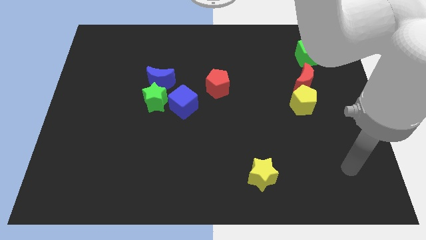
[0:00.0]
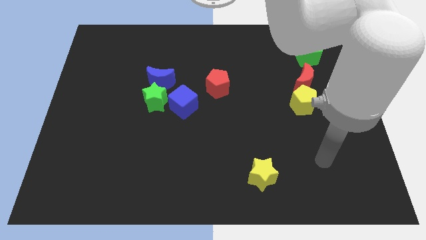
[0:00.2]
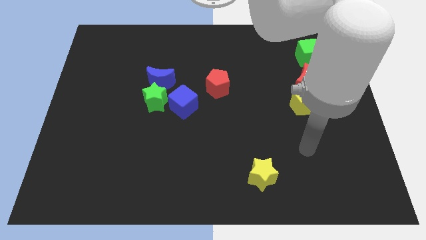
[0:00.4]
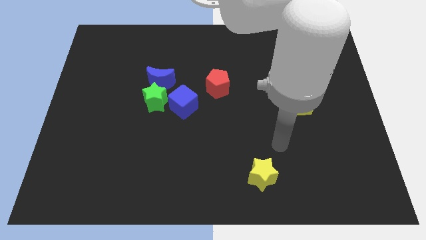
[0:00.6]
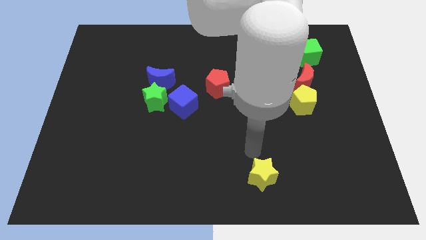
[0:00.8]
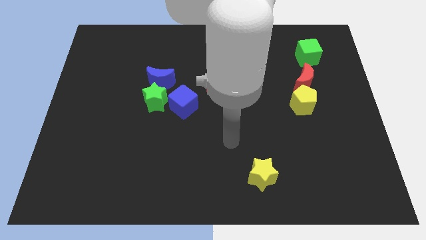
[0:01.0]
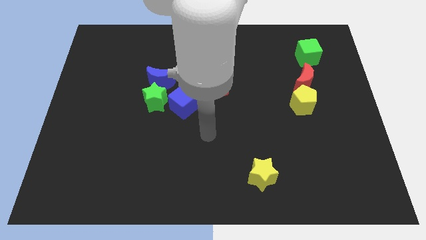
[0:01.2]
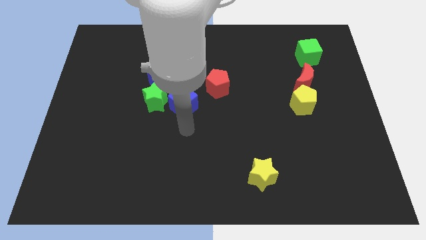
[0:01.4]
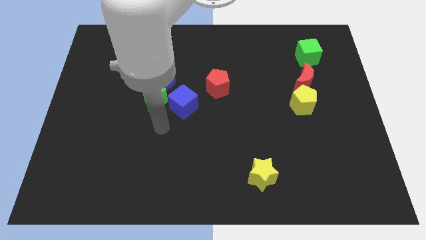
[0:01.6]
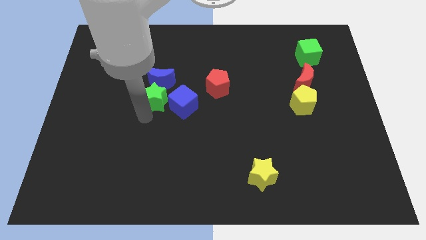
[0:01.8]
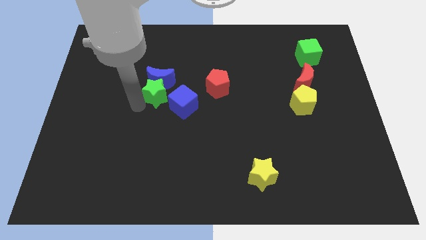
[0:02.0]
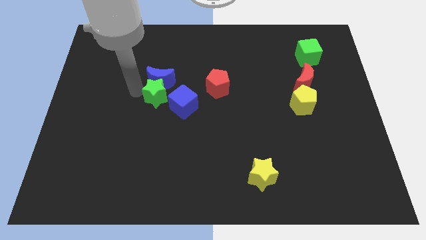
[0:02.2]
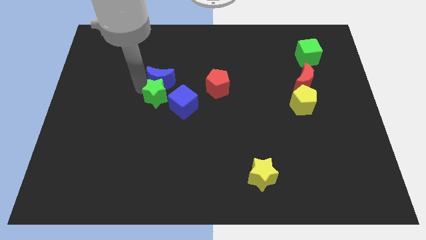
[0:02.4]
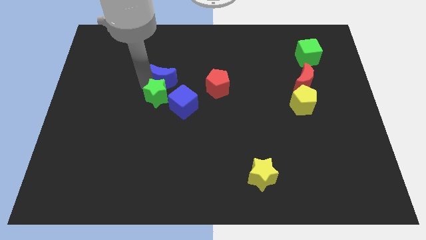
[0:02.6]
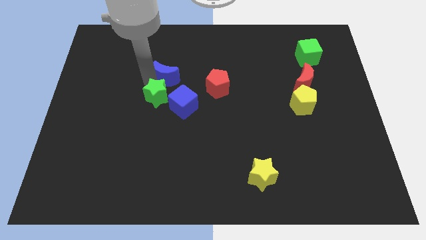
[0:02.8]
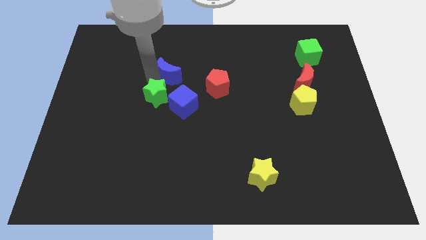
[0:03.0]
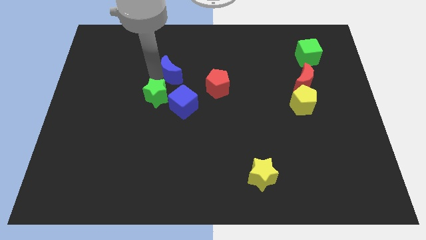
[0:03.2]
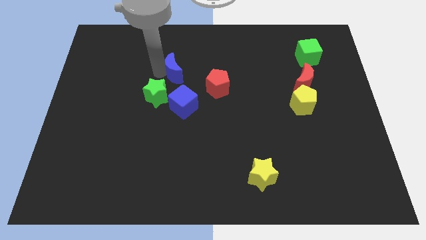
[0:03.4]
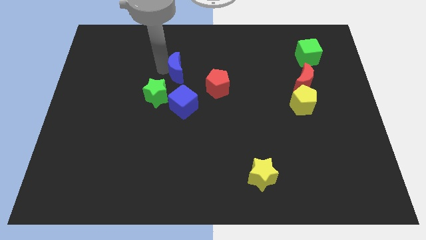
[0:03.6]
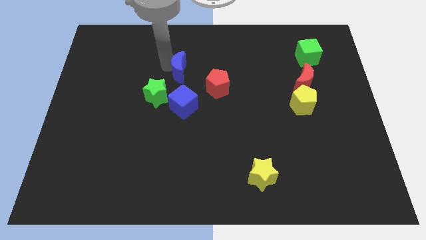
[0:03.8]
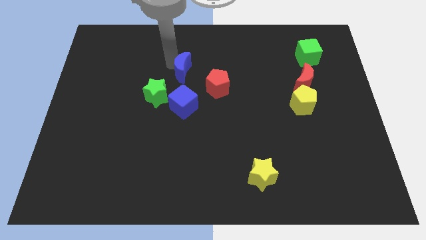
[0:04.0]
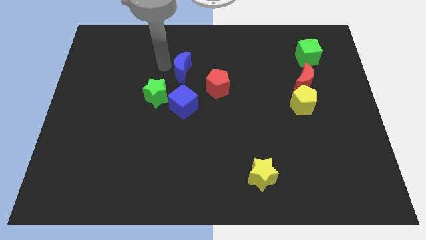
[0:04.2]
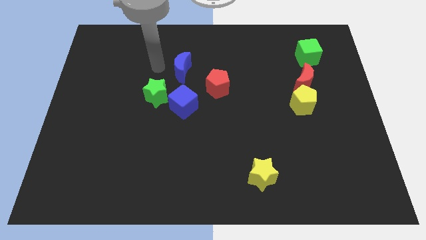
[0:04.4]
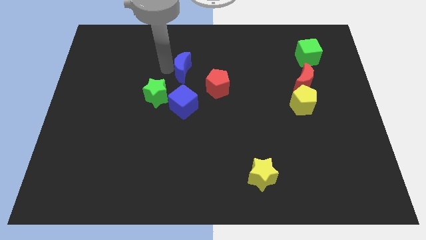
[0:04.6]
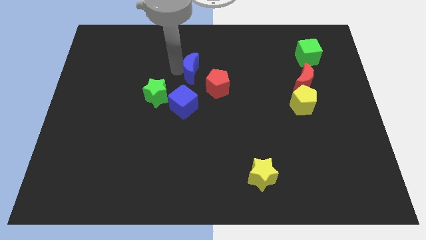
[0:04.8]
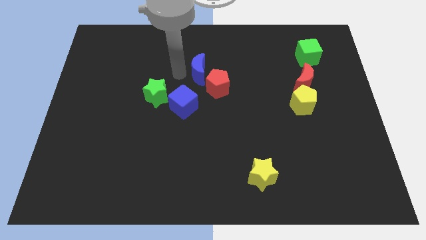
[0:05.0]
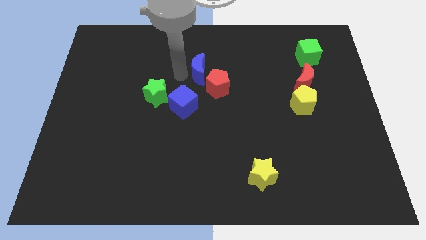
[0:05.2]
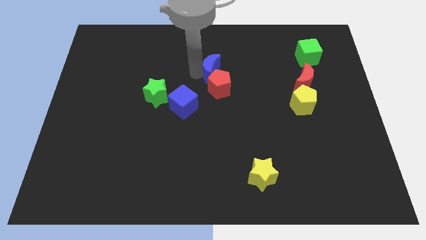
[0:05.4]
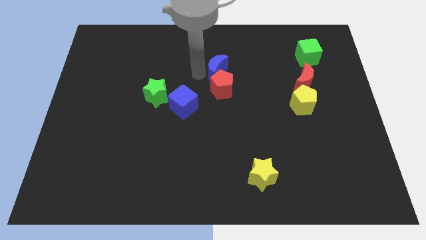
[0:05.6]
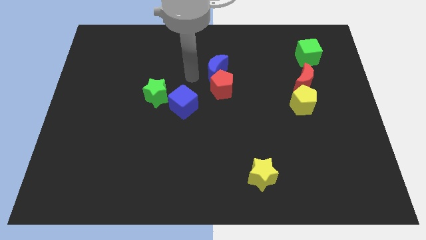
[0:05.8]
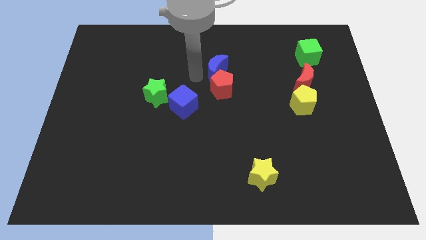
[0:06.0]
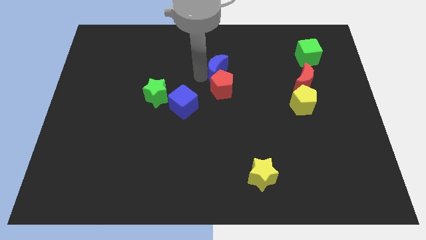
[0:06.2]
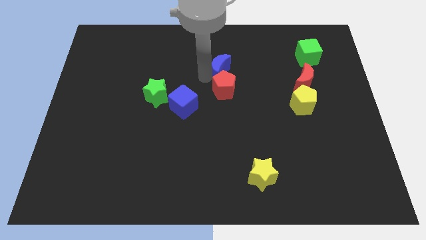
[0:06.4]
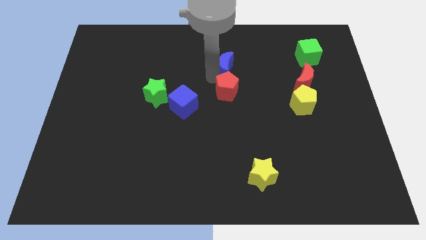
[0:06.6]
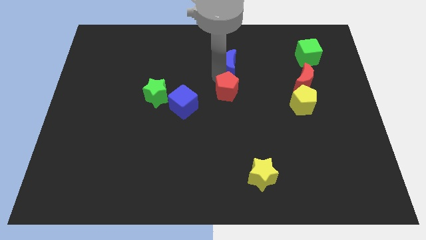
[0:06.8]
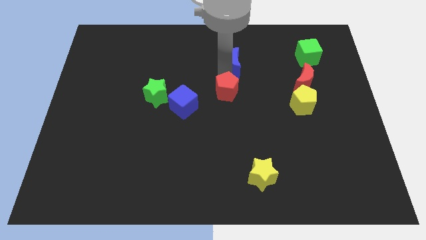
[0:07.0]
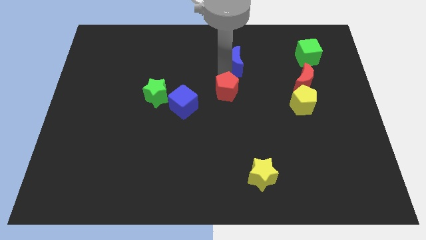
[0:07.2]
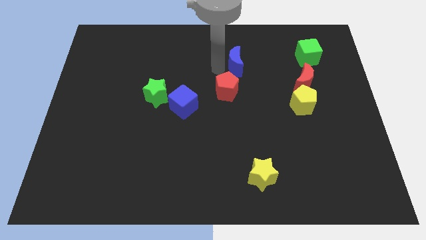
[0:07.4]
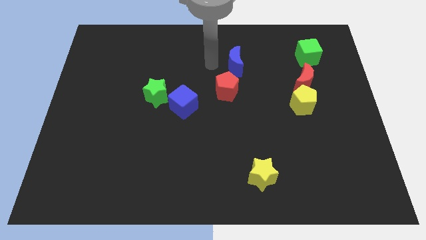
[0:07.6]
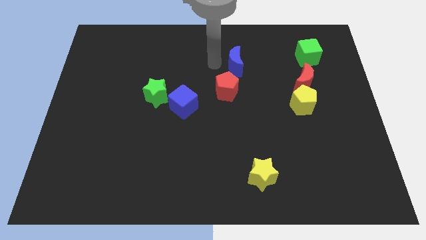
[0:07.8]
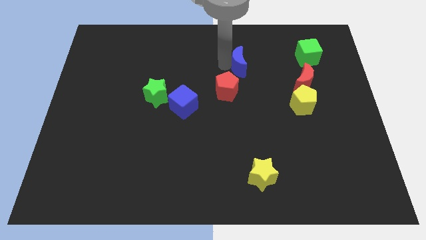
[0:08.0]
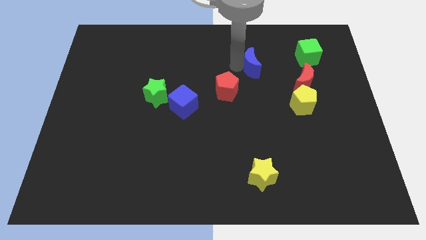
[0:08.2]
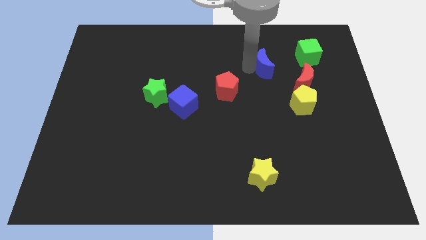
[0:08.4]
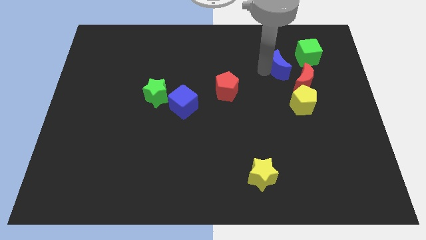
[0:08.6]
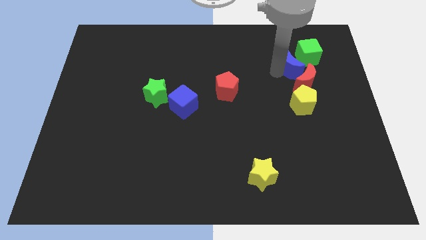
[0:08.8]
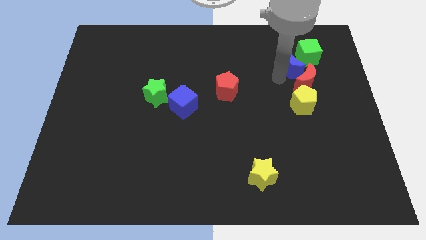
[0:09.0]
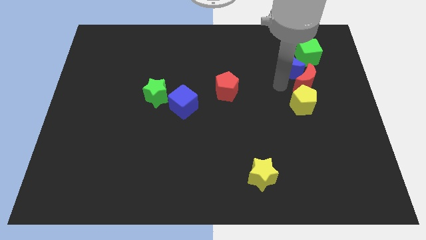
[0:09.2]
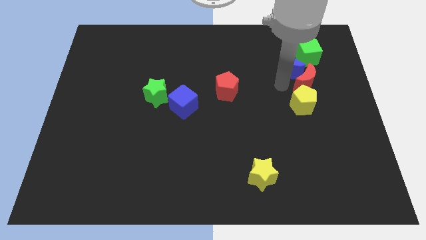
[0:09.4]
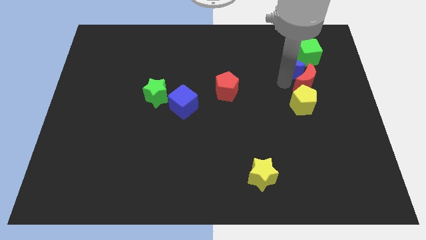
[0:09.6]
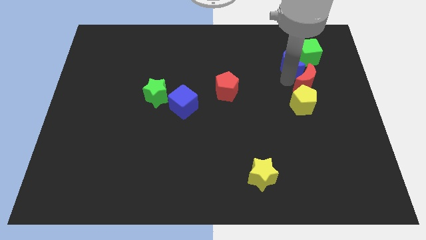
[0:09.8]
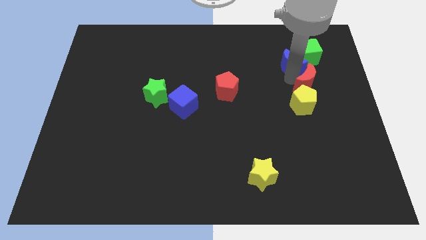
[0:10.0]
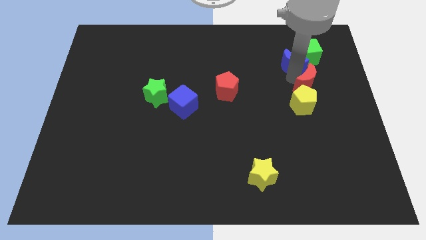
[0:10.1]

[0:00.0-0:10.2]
slide the blue moon towards the green cube

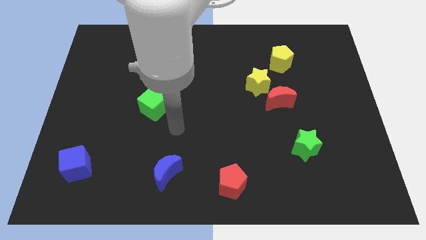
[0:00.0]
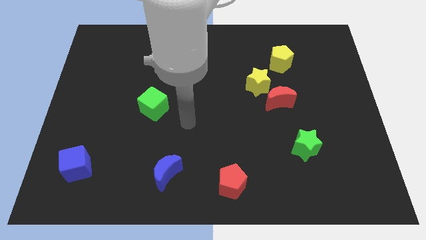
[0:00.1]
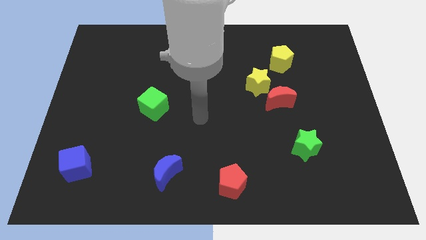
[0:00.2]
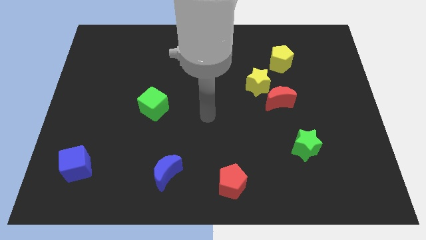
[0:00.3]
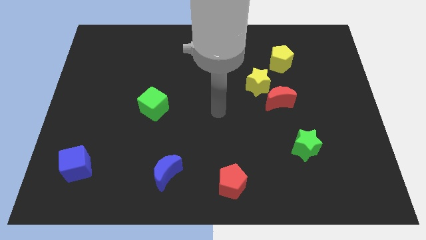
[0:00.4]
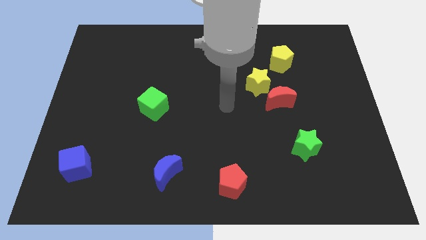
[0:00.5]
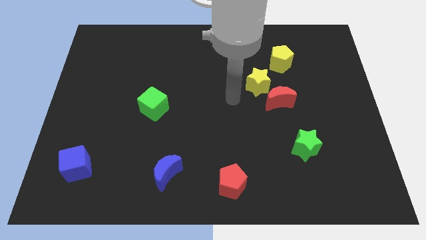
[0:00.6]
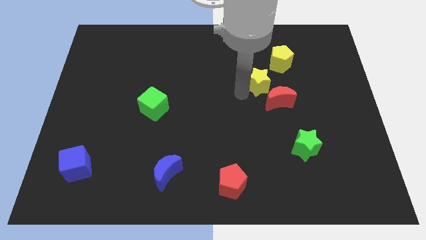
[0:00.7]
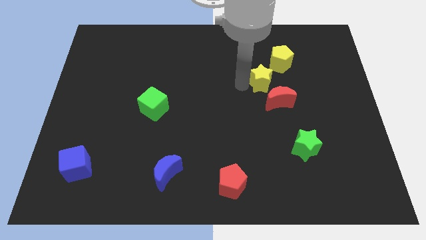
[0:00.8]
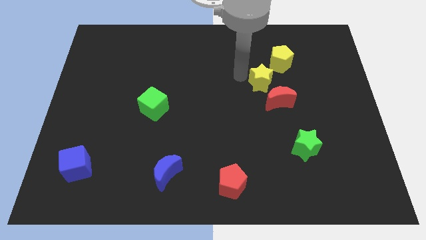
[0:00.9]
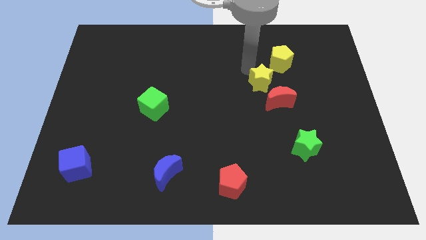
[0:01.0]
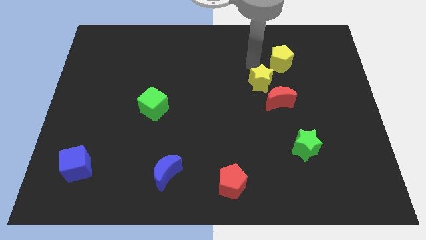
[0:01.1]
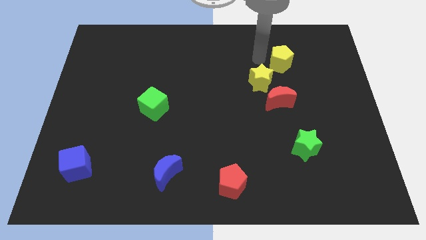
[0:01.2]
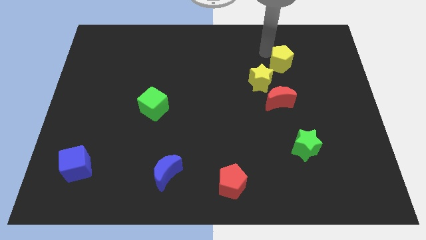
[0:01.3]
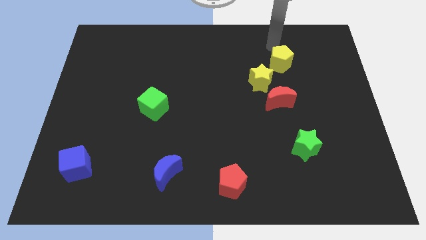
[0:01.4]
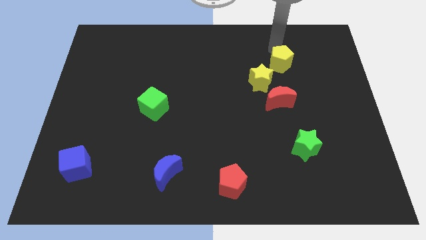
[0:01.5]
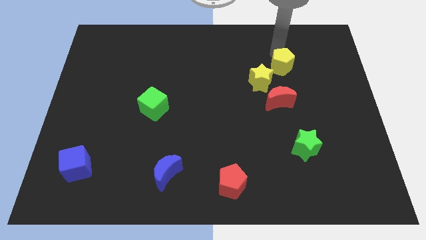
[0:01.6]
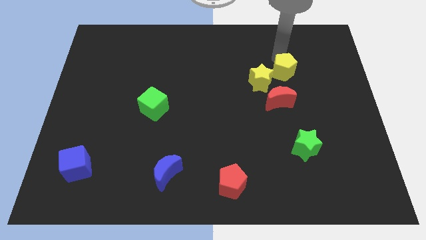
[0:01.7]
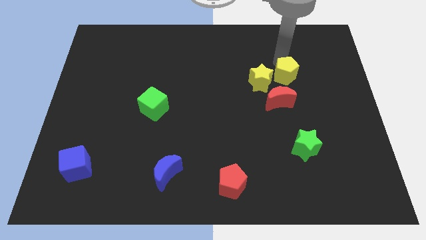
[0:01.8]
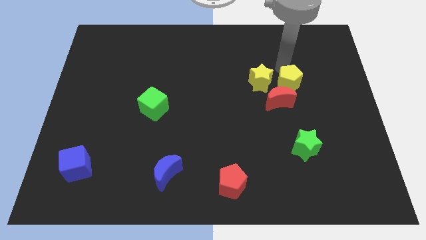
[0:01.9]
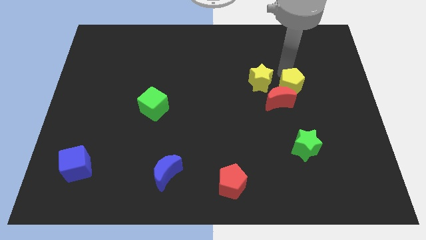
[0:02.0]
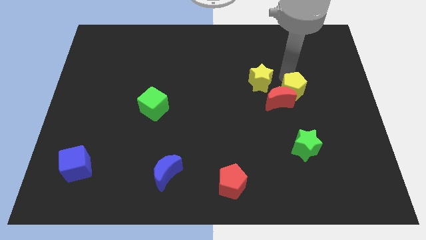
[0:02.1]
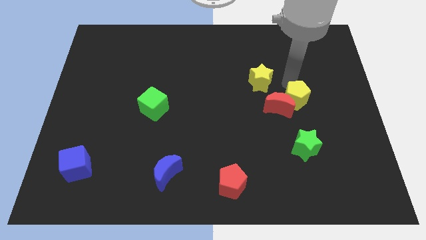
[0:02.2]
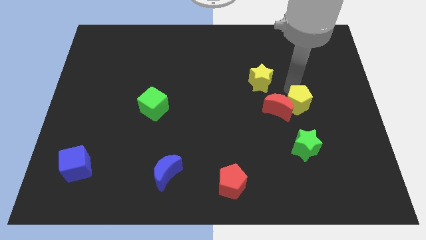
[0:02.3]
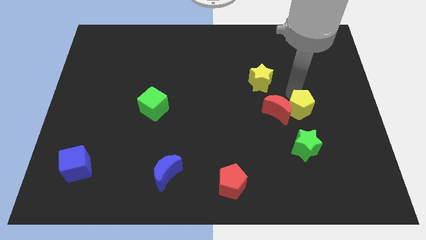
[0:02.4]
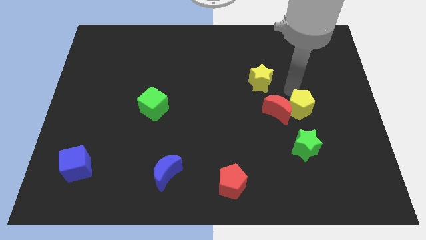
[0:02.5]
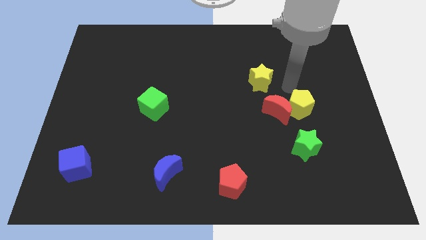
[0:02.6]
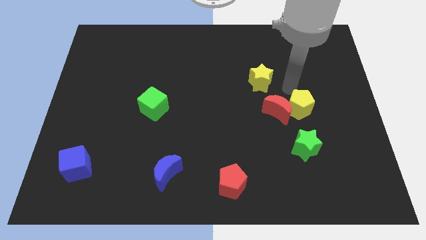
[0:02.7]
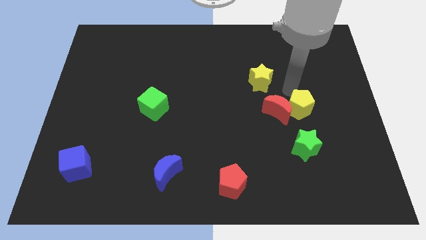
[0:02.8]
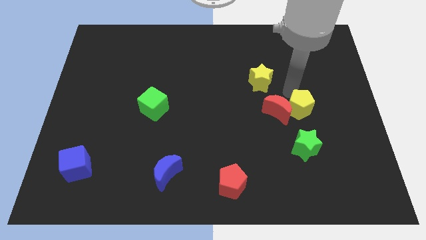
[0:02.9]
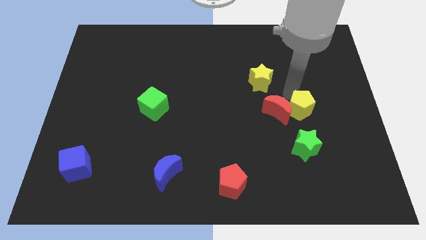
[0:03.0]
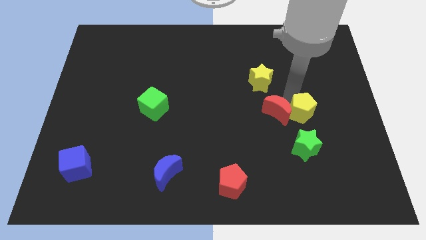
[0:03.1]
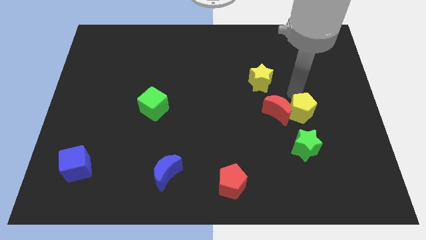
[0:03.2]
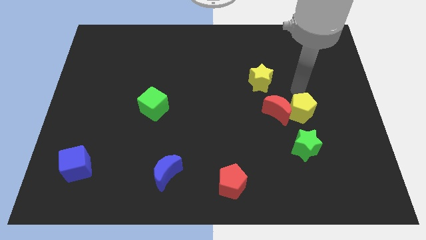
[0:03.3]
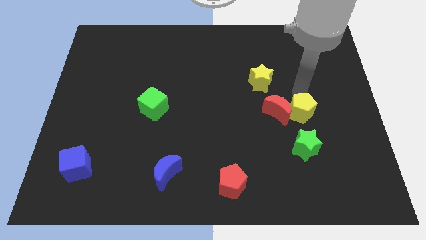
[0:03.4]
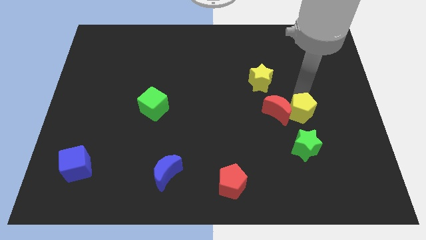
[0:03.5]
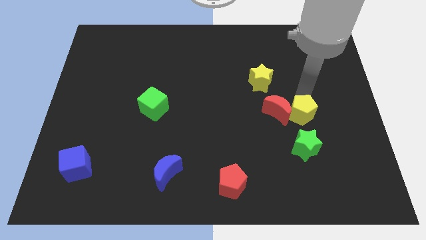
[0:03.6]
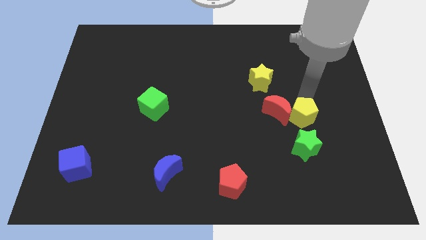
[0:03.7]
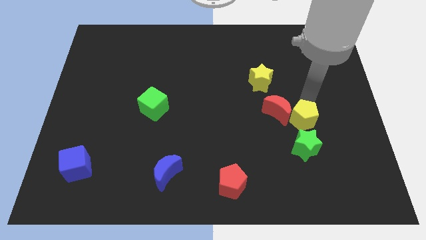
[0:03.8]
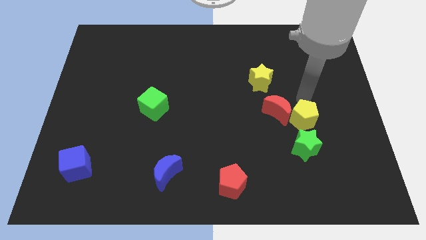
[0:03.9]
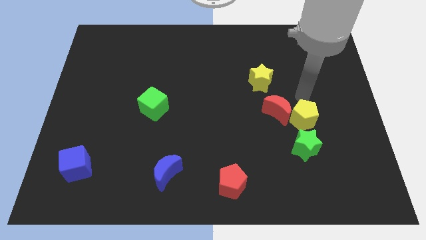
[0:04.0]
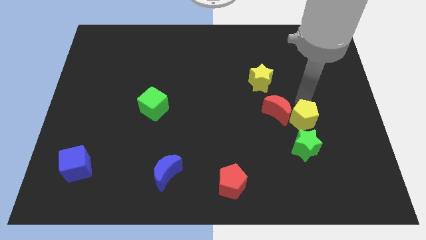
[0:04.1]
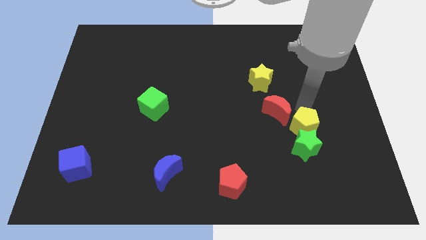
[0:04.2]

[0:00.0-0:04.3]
put the yellow pentagon close to the green star
